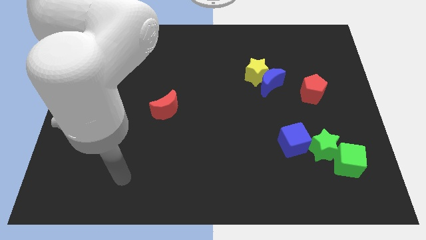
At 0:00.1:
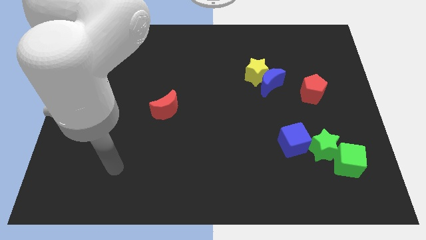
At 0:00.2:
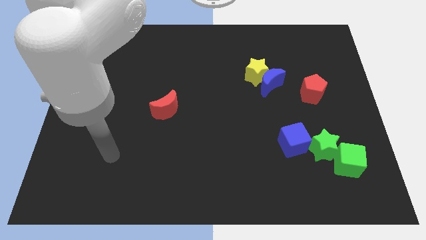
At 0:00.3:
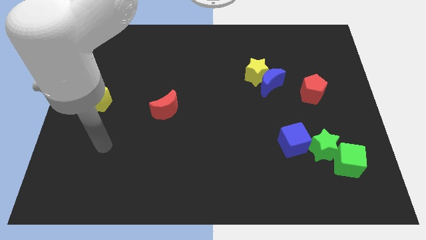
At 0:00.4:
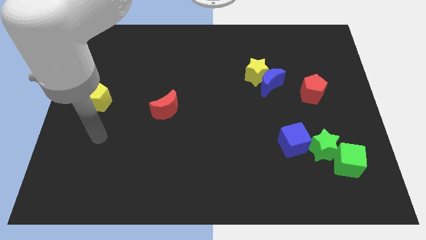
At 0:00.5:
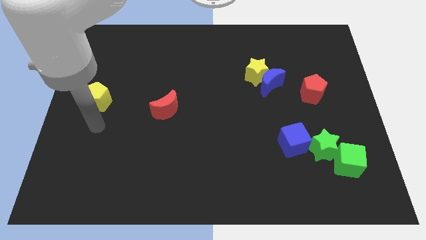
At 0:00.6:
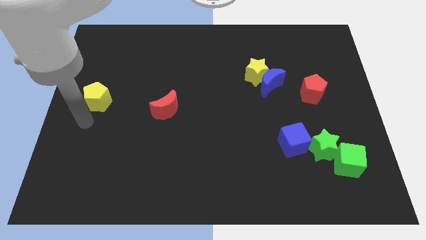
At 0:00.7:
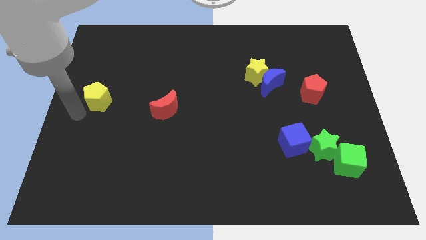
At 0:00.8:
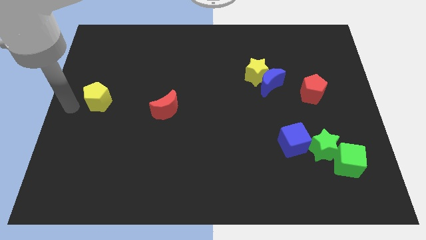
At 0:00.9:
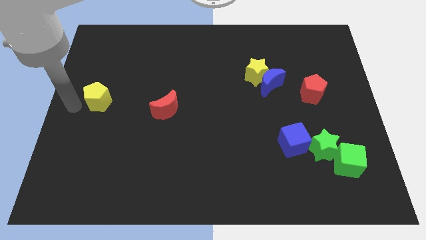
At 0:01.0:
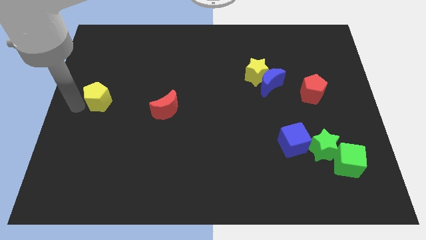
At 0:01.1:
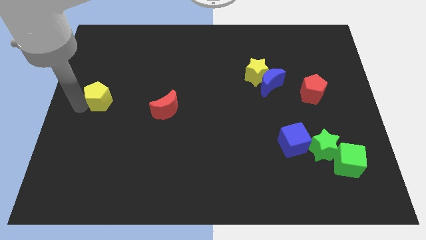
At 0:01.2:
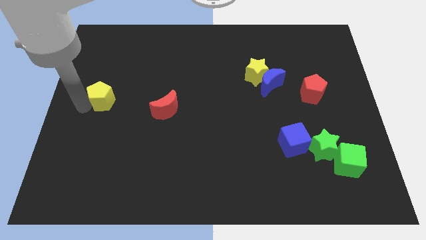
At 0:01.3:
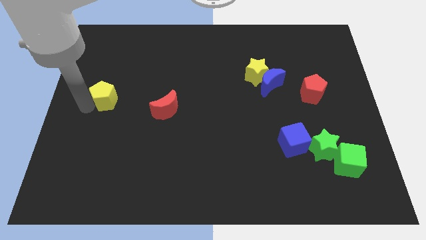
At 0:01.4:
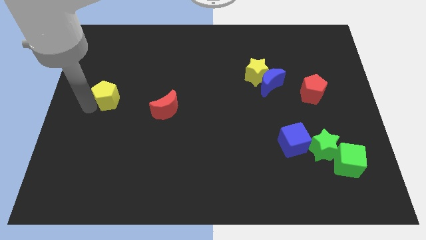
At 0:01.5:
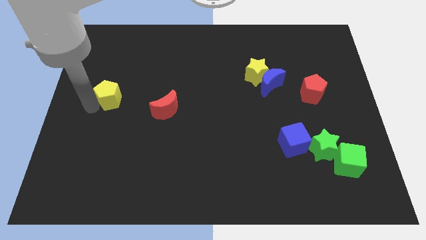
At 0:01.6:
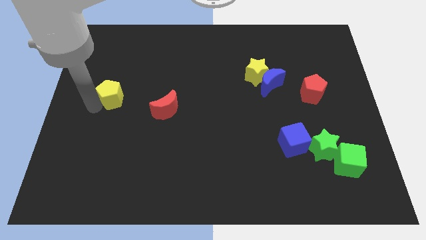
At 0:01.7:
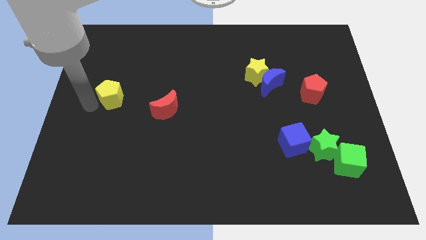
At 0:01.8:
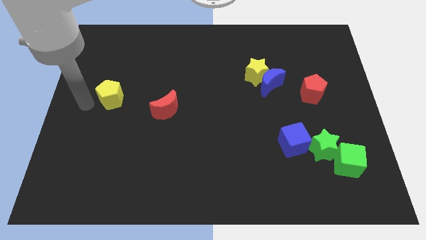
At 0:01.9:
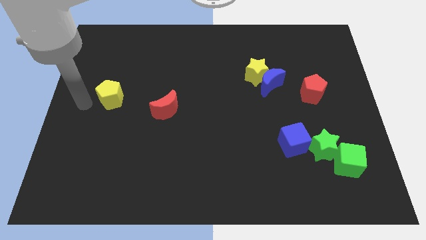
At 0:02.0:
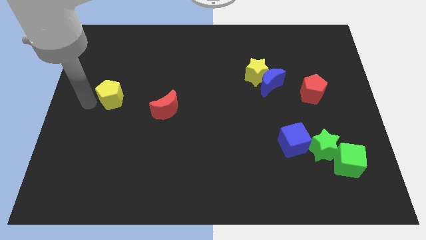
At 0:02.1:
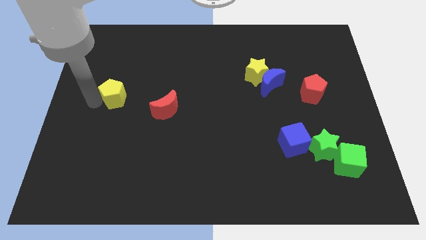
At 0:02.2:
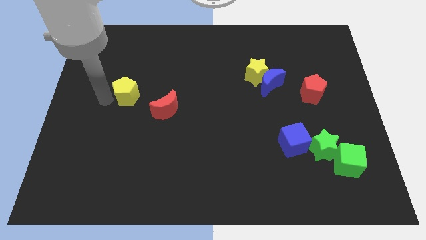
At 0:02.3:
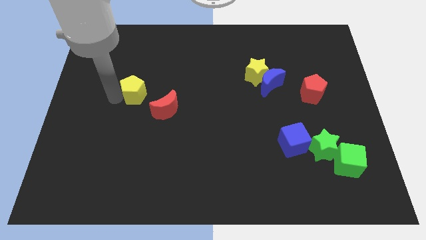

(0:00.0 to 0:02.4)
push the yellow pentagon a little bit right

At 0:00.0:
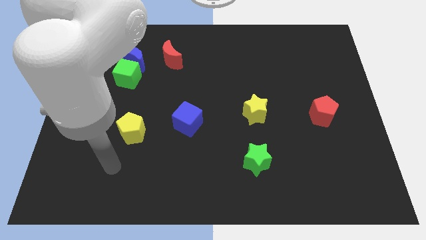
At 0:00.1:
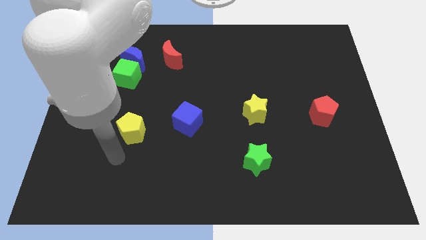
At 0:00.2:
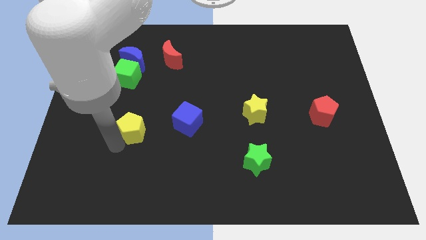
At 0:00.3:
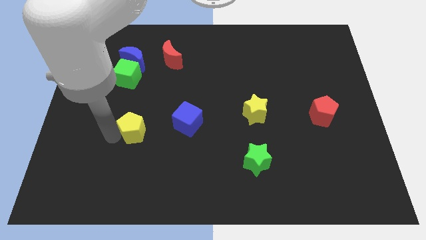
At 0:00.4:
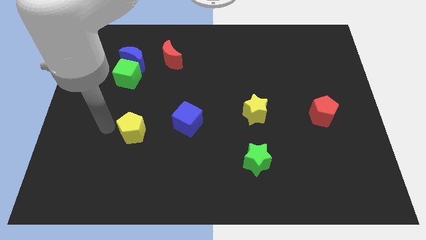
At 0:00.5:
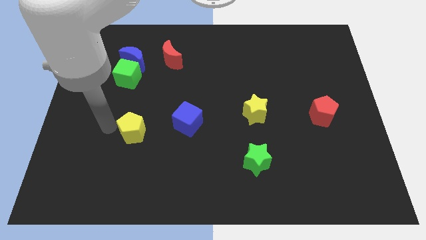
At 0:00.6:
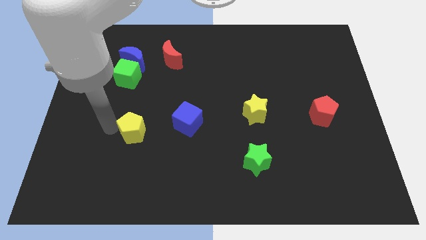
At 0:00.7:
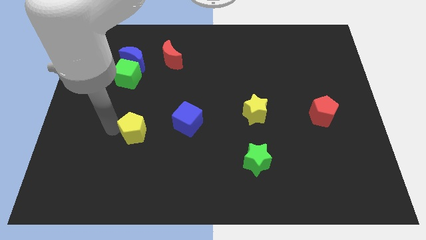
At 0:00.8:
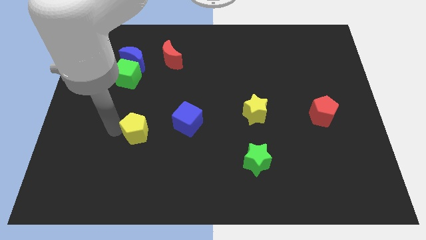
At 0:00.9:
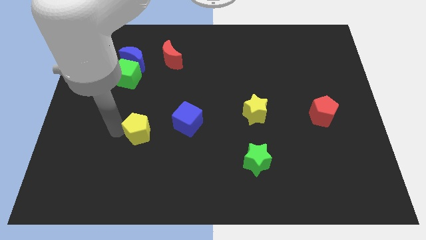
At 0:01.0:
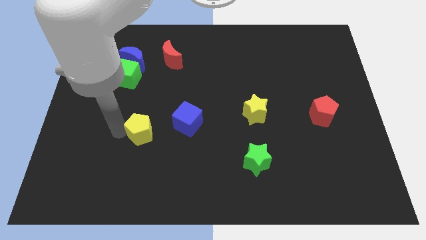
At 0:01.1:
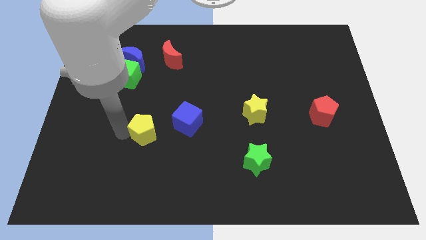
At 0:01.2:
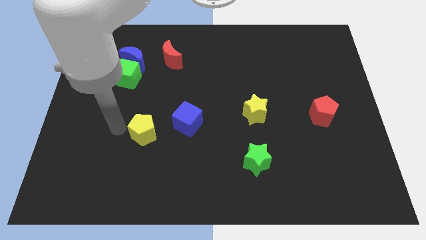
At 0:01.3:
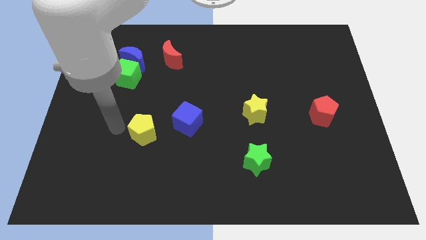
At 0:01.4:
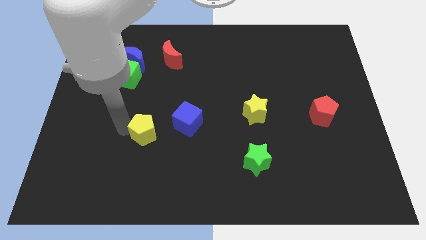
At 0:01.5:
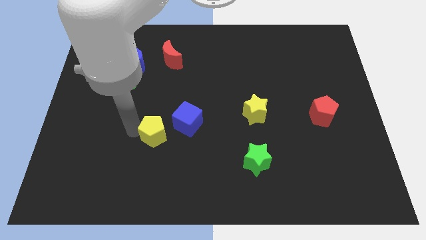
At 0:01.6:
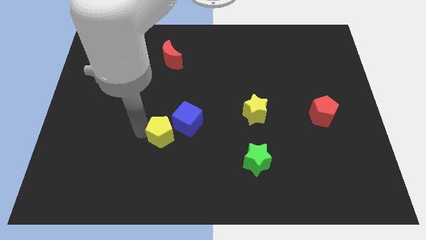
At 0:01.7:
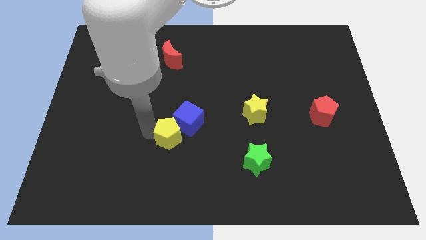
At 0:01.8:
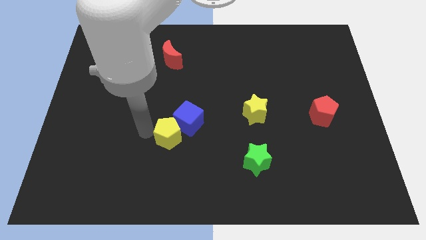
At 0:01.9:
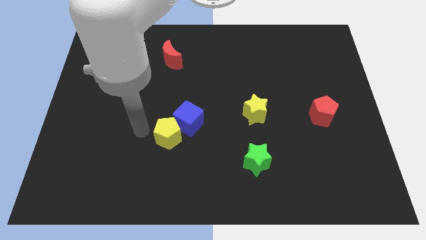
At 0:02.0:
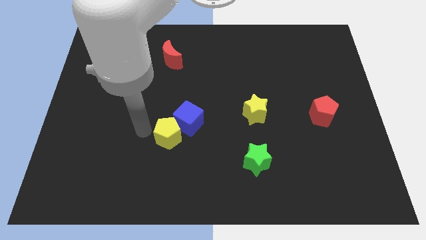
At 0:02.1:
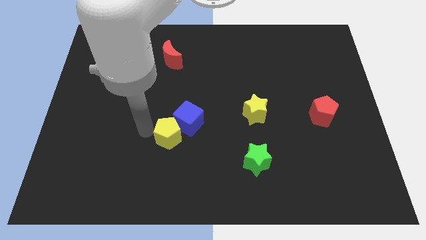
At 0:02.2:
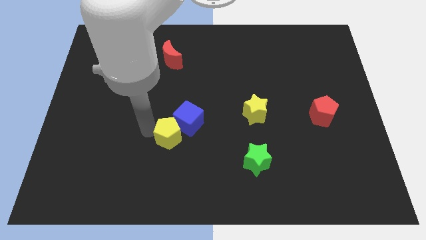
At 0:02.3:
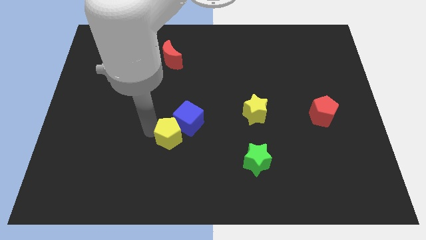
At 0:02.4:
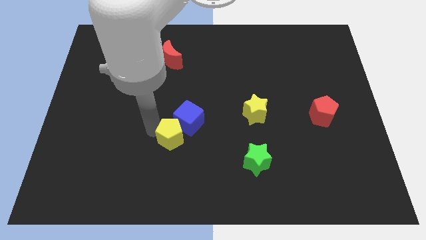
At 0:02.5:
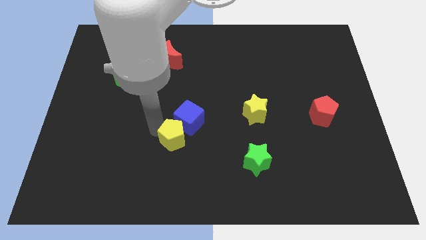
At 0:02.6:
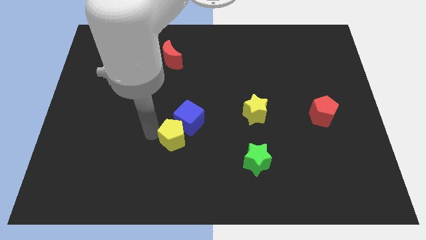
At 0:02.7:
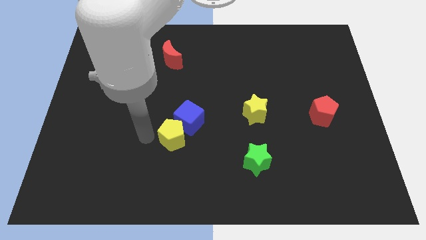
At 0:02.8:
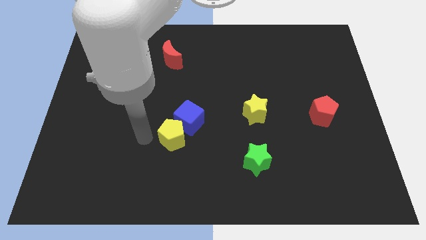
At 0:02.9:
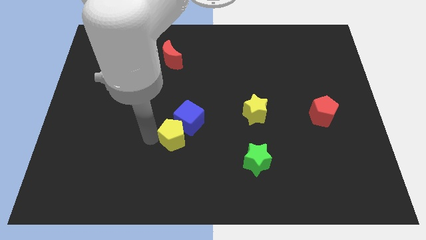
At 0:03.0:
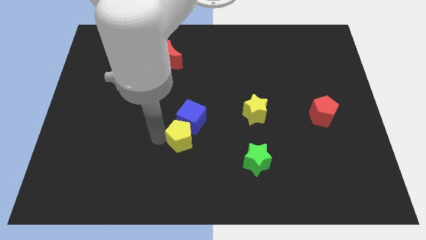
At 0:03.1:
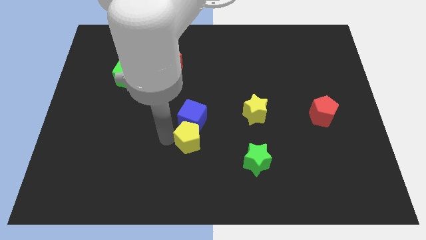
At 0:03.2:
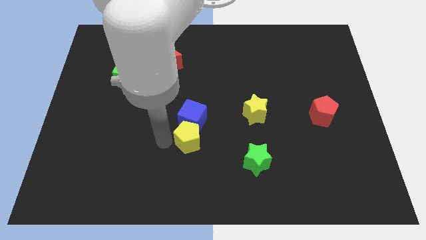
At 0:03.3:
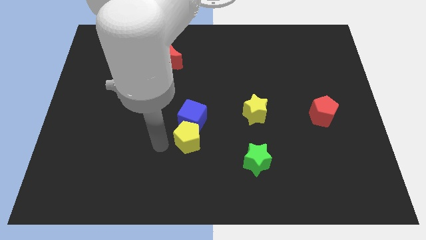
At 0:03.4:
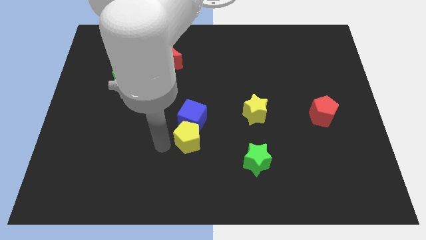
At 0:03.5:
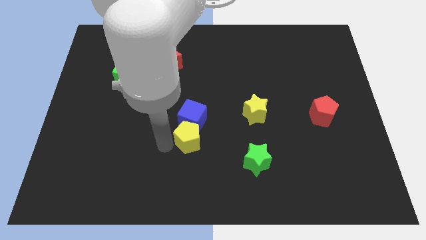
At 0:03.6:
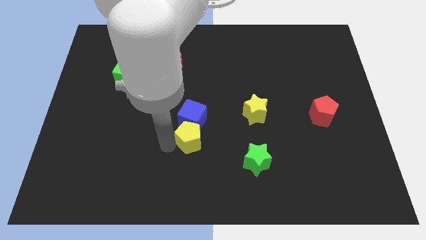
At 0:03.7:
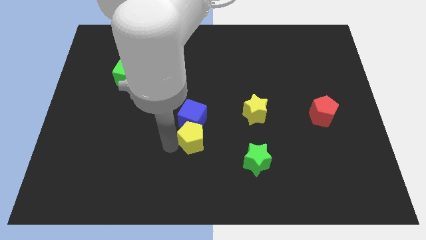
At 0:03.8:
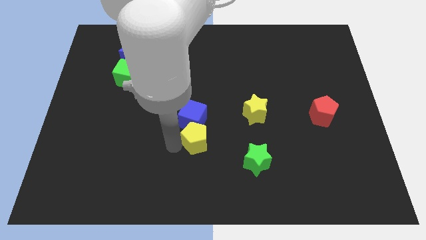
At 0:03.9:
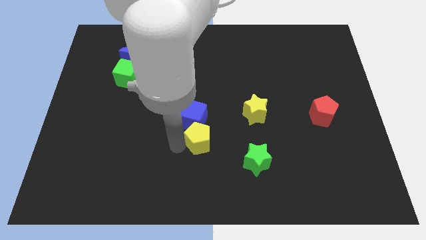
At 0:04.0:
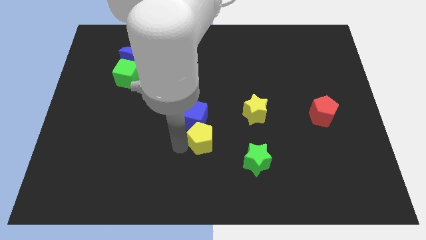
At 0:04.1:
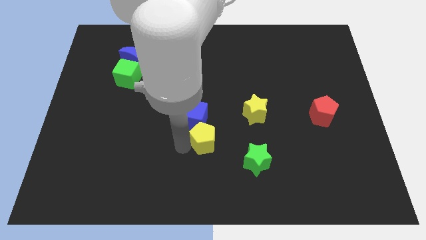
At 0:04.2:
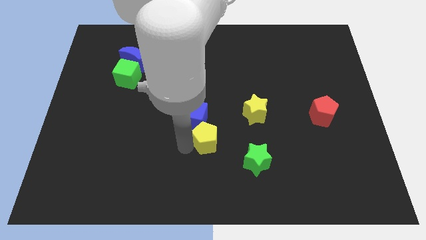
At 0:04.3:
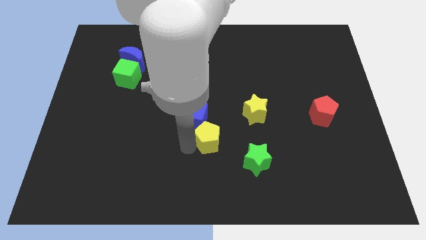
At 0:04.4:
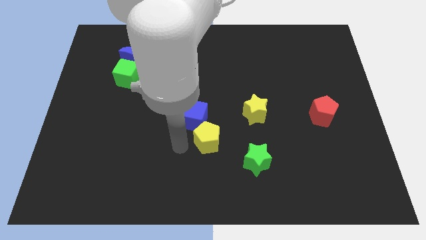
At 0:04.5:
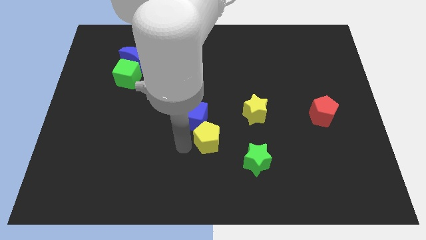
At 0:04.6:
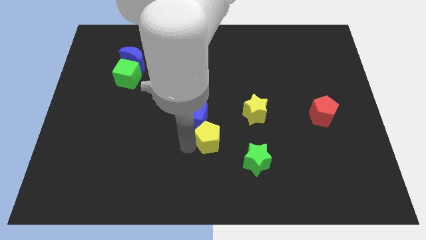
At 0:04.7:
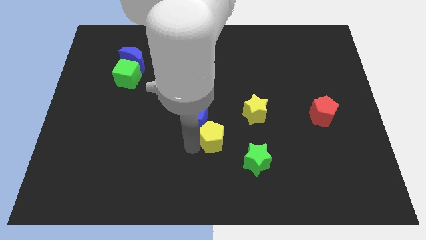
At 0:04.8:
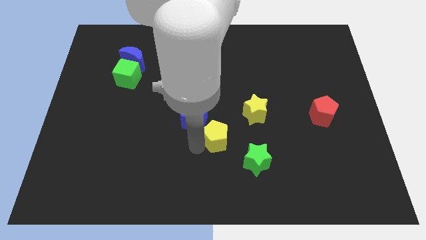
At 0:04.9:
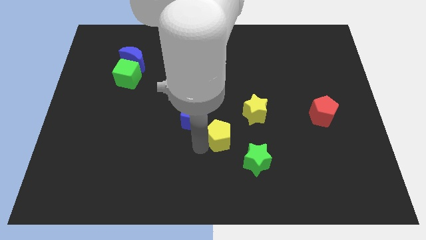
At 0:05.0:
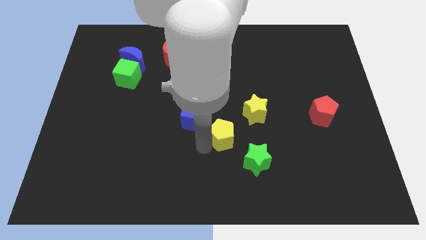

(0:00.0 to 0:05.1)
move the yellow pentagon to the right

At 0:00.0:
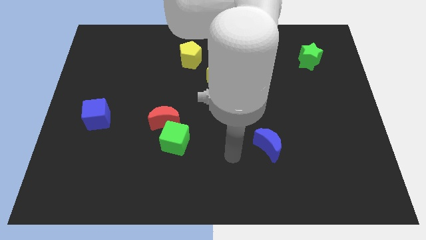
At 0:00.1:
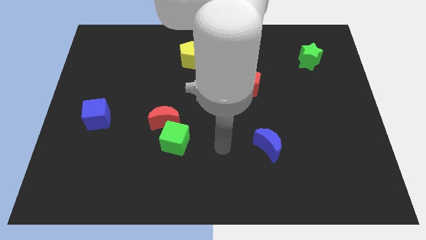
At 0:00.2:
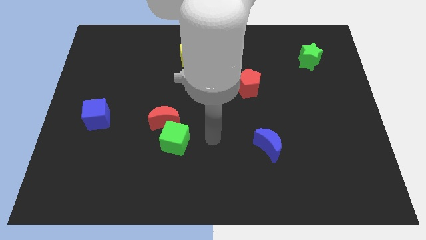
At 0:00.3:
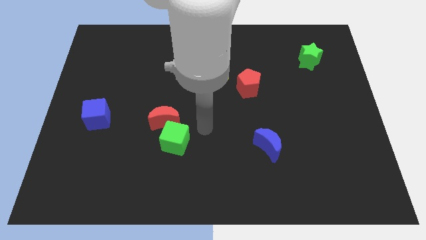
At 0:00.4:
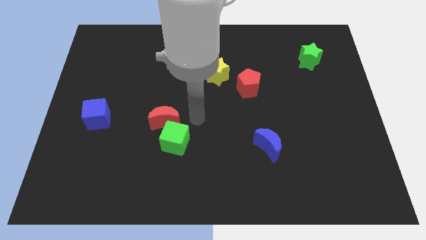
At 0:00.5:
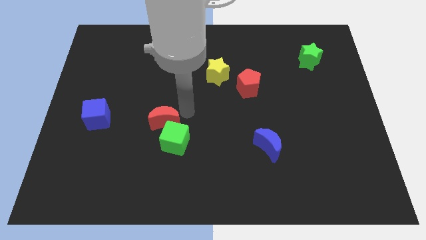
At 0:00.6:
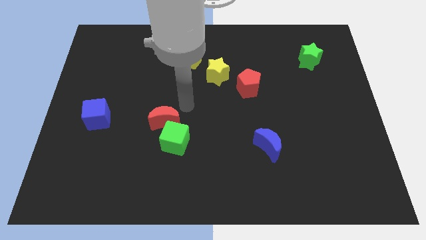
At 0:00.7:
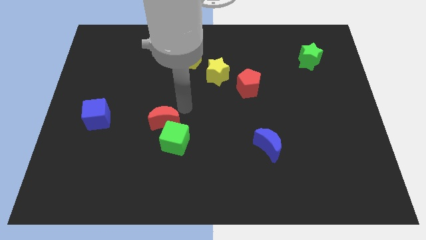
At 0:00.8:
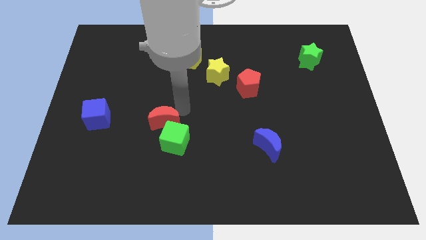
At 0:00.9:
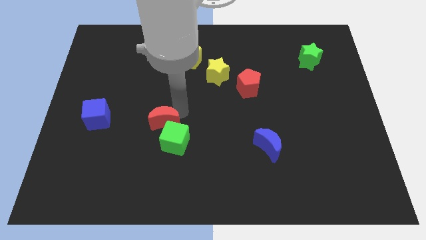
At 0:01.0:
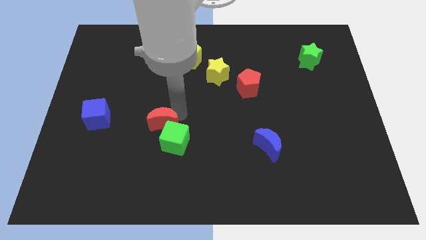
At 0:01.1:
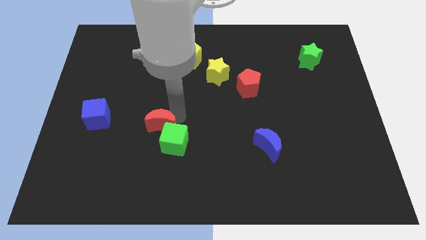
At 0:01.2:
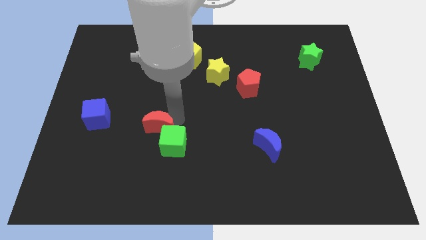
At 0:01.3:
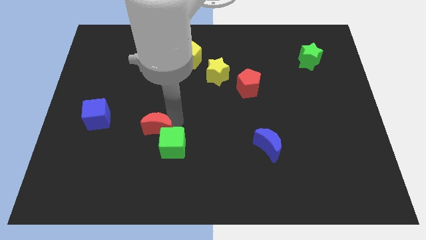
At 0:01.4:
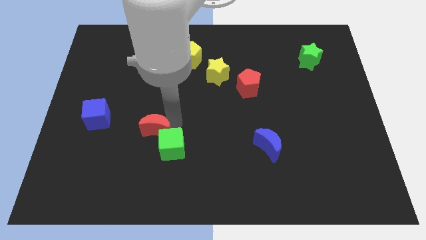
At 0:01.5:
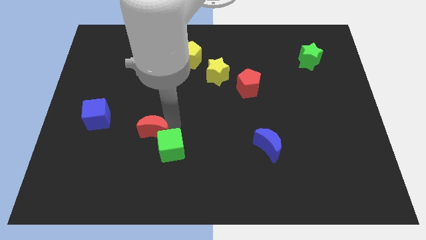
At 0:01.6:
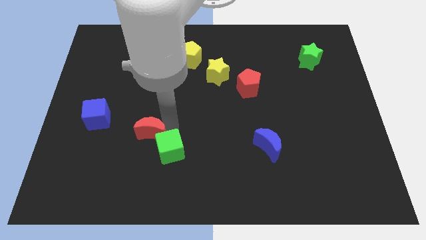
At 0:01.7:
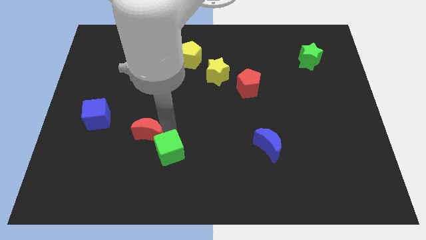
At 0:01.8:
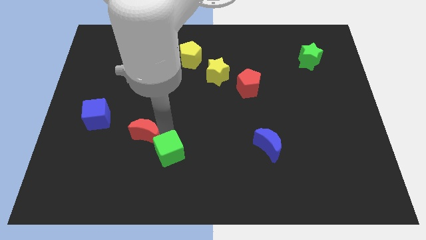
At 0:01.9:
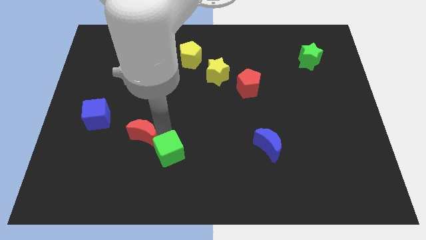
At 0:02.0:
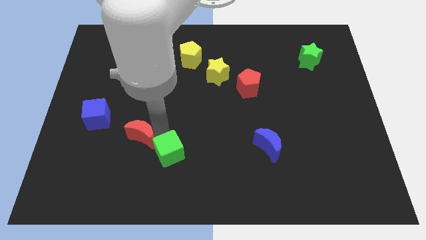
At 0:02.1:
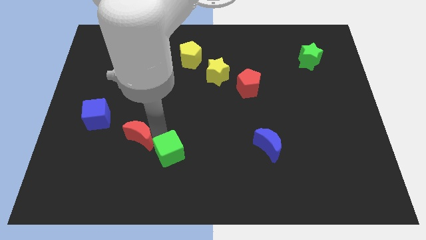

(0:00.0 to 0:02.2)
move the red moon a little diagonally down and left
